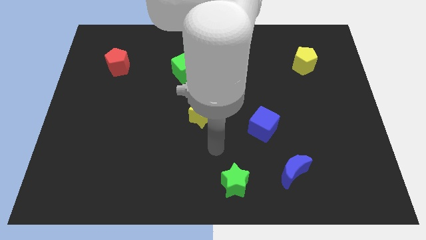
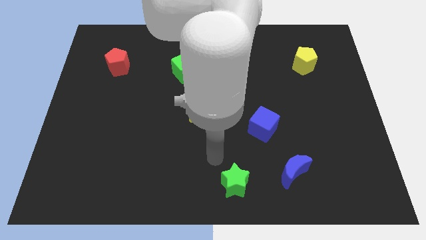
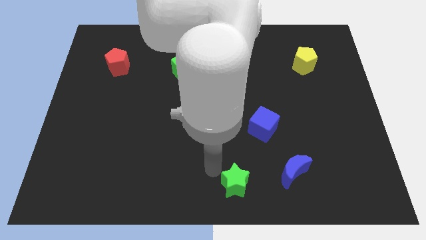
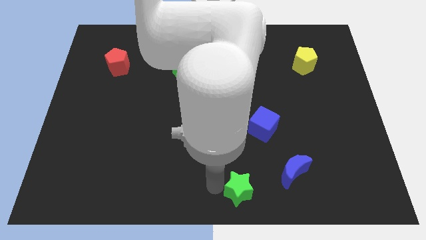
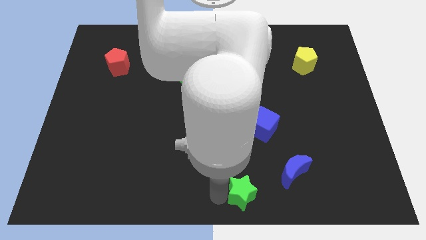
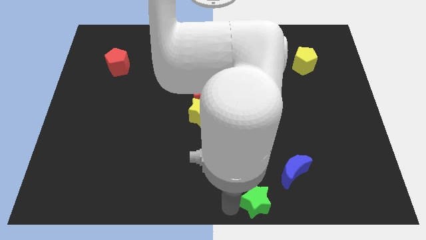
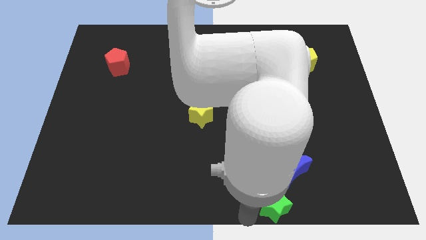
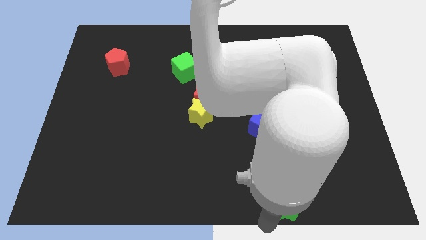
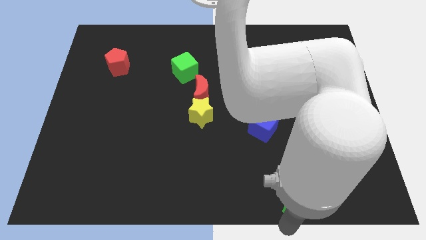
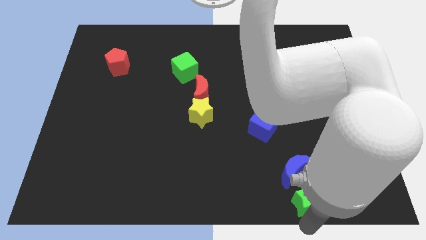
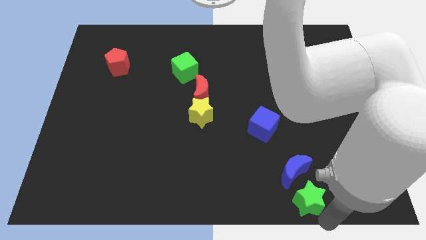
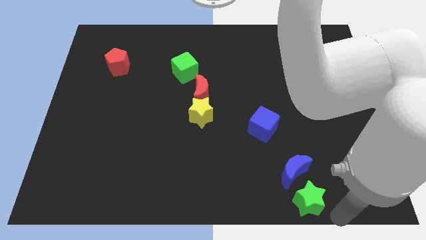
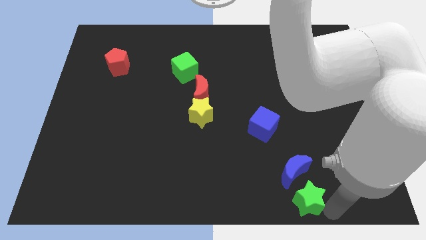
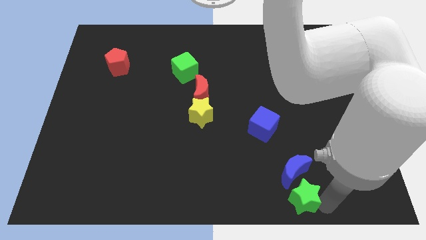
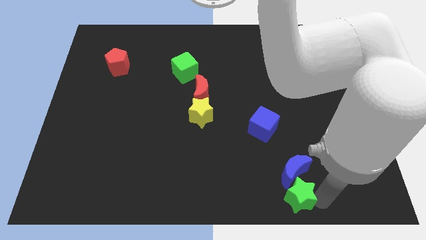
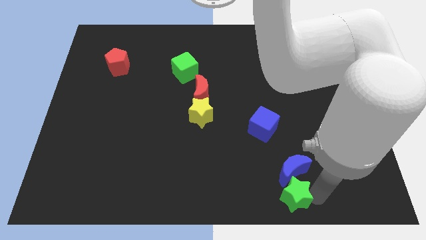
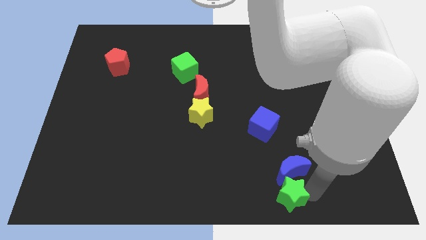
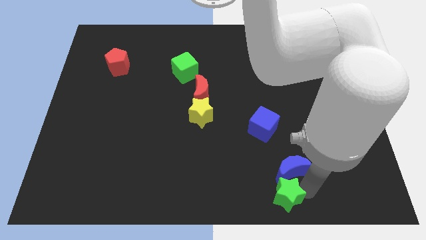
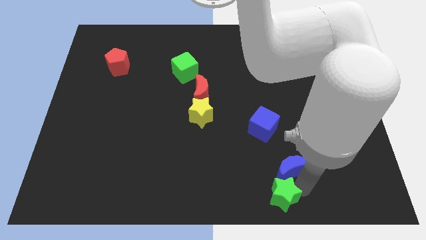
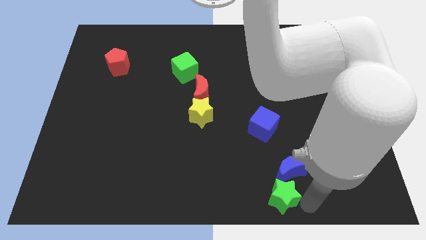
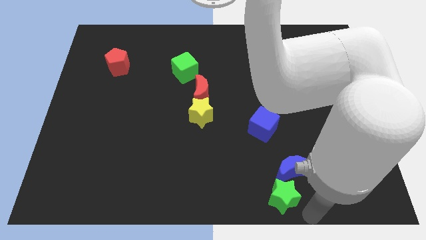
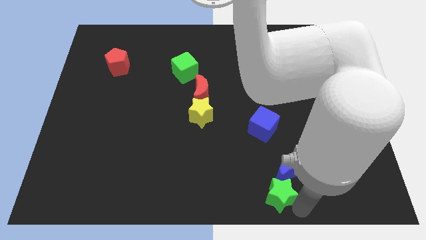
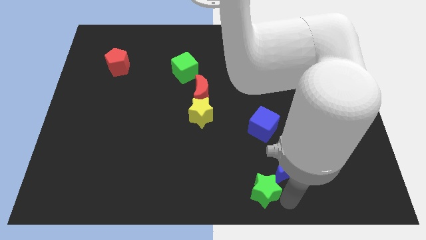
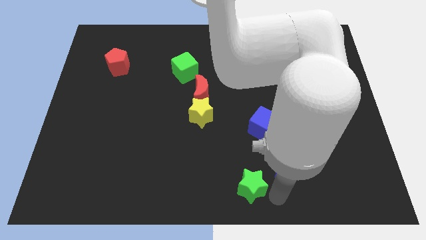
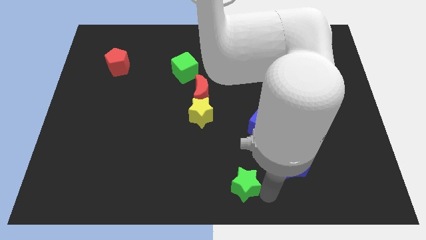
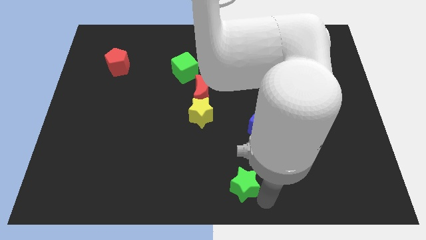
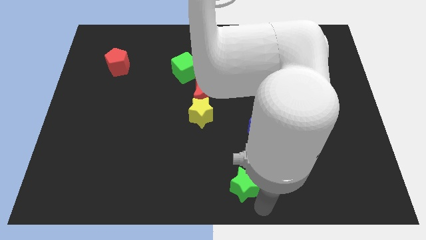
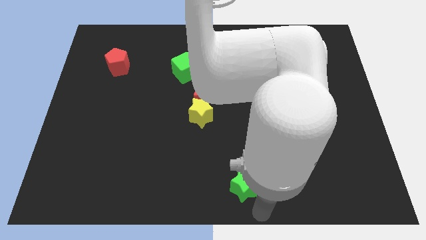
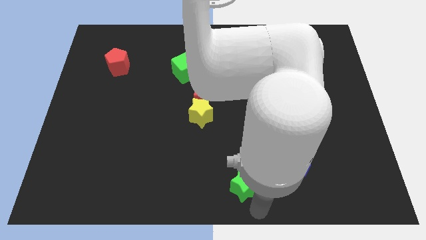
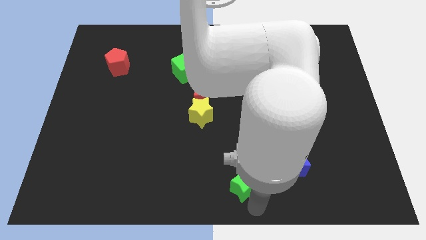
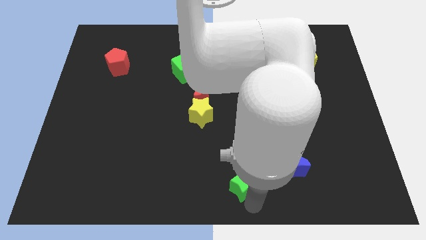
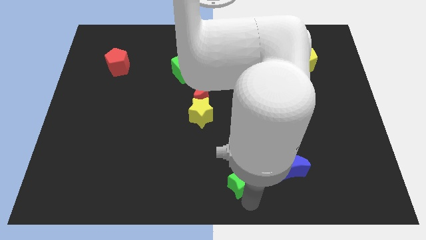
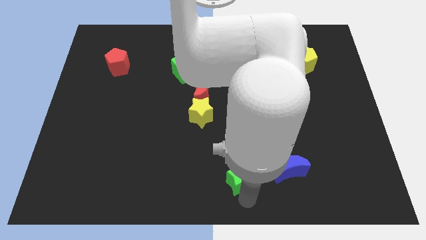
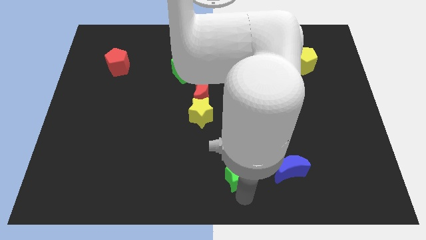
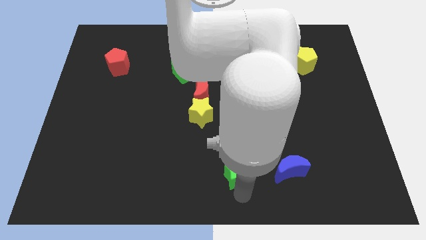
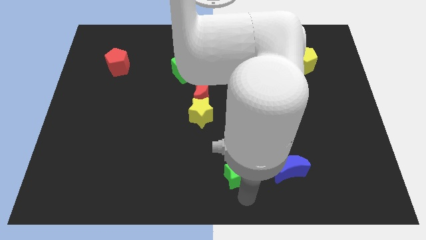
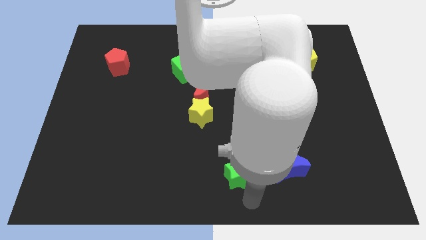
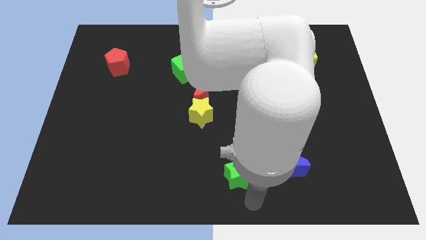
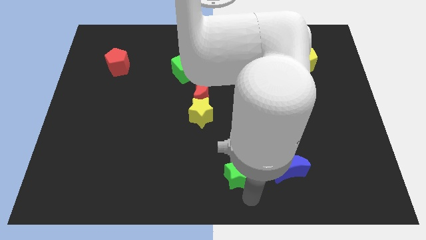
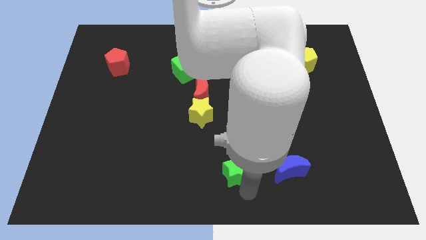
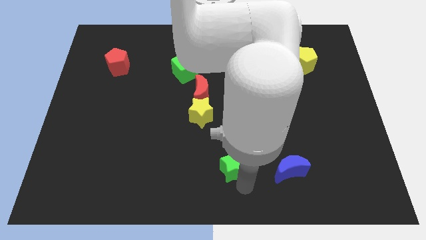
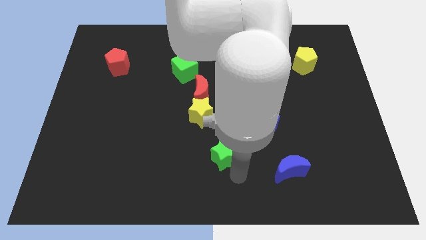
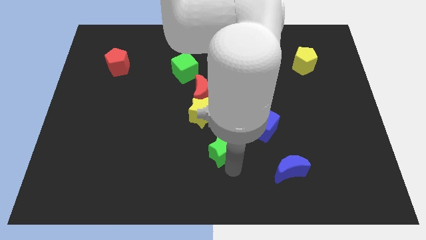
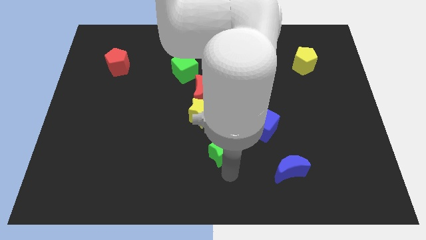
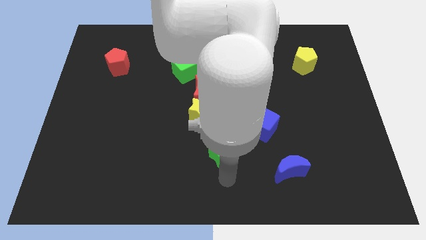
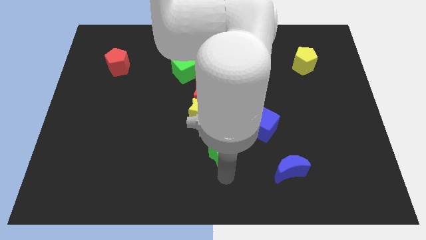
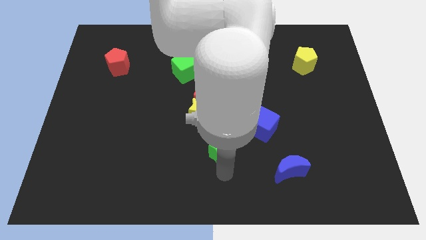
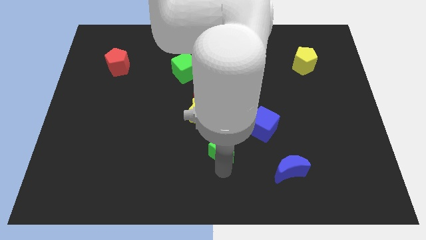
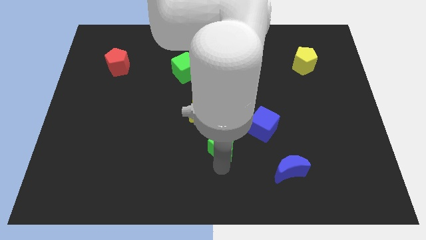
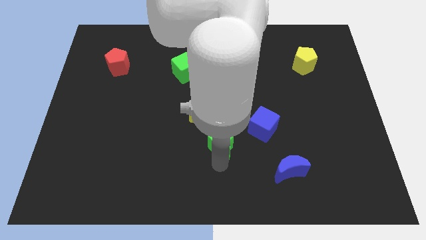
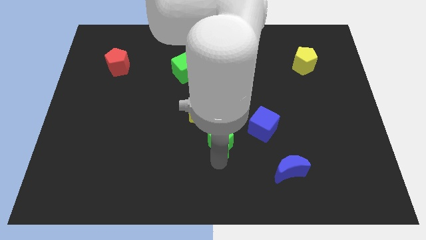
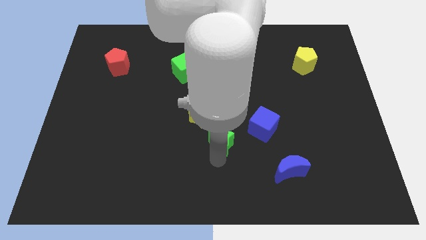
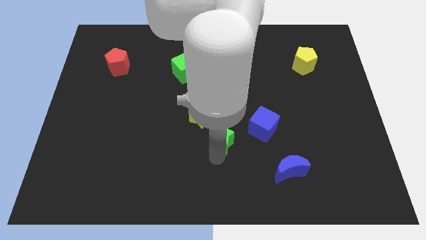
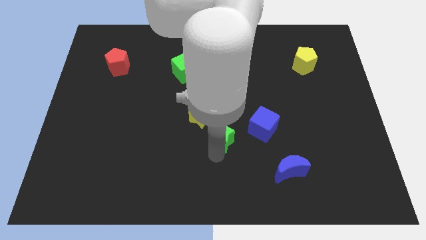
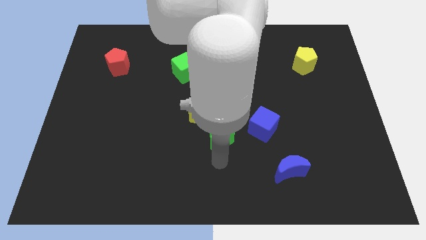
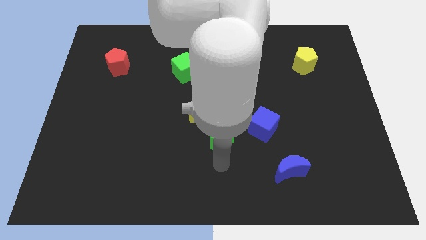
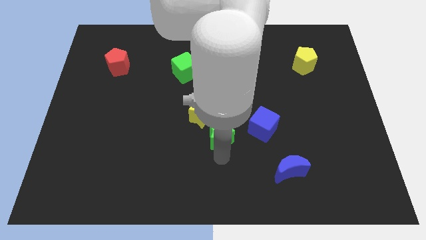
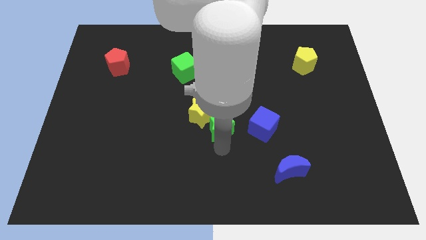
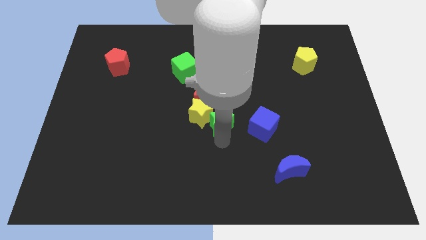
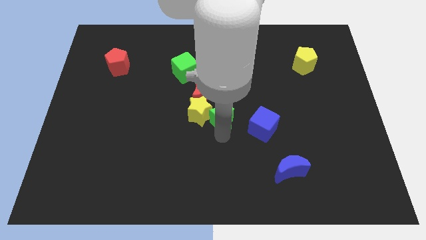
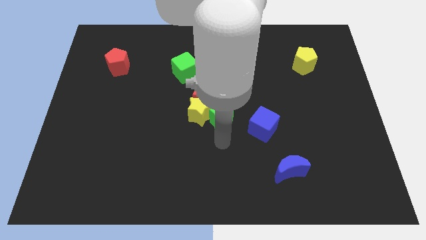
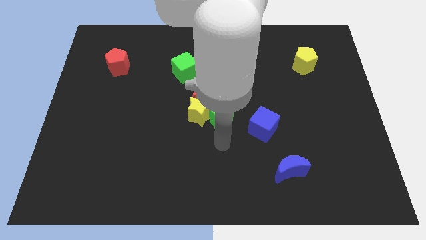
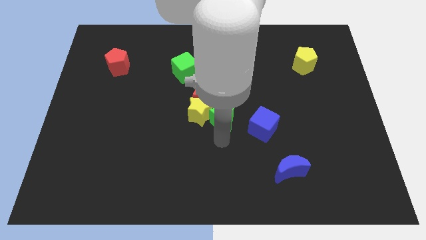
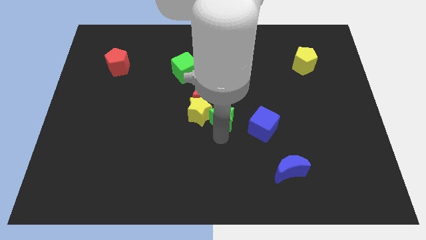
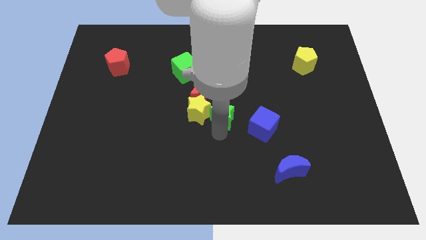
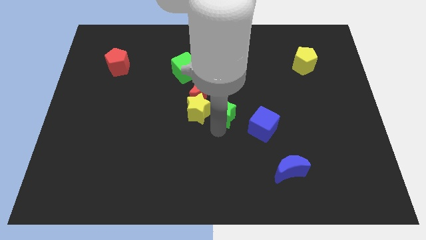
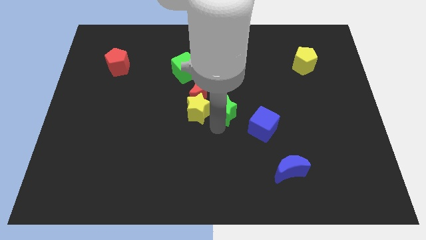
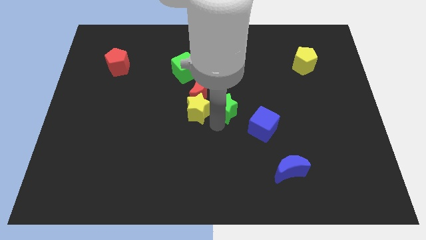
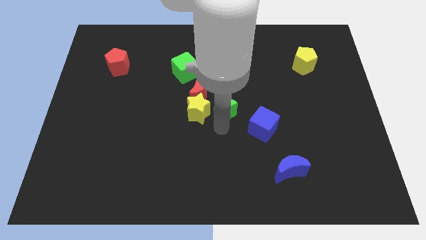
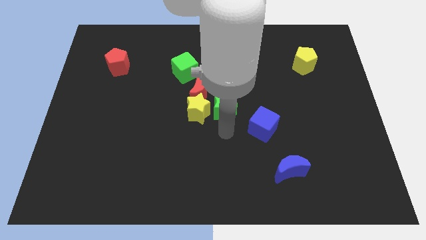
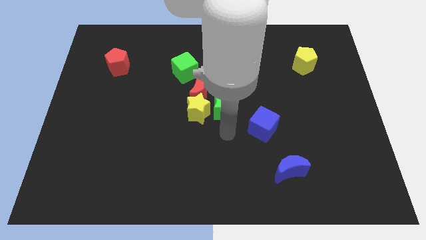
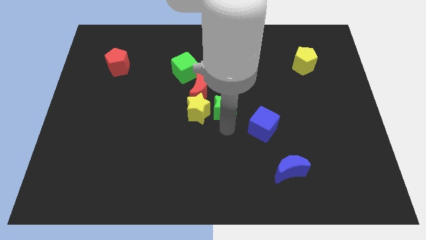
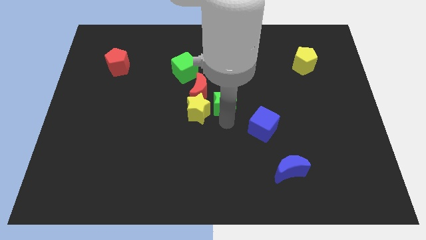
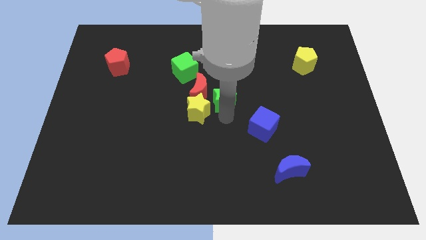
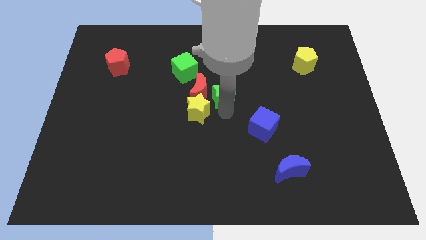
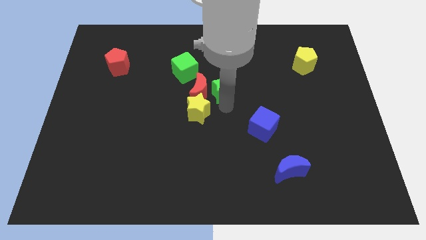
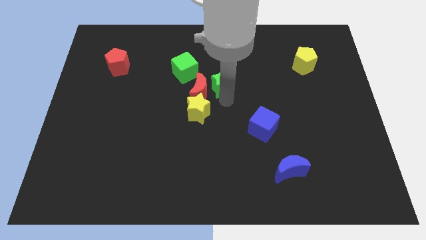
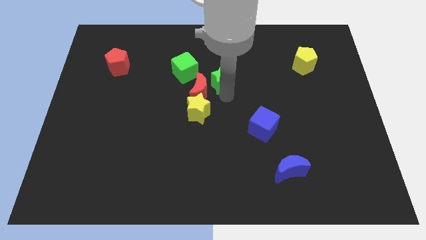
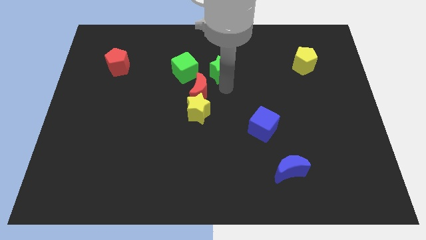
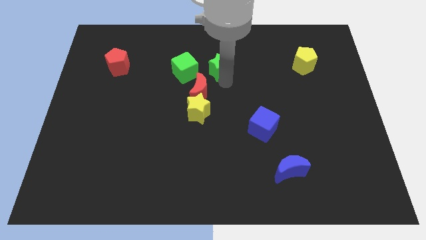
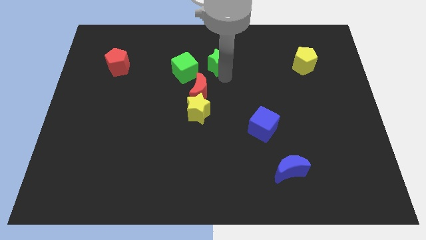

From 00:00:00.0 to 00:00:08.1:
push the green star to the top right of the green cube
